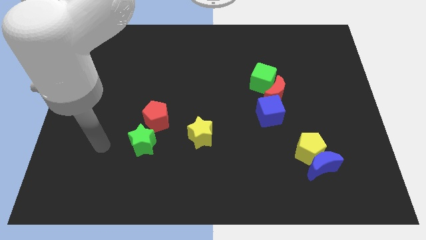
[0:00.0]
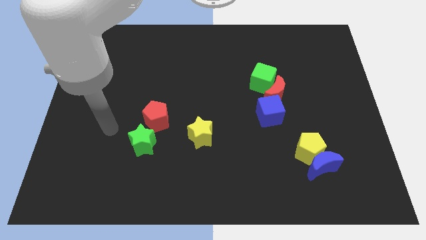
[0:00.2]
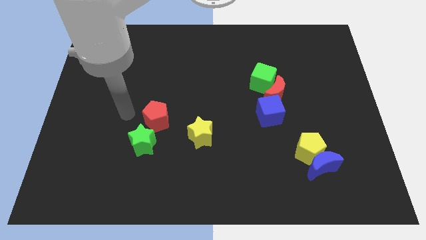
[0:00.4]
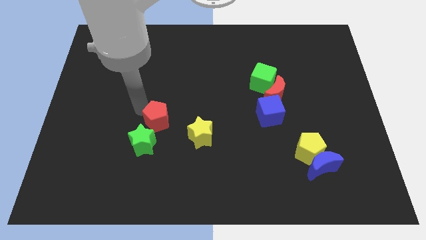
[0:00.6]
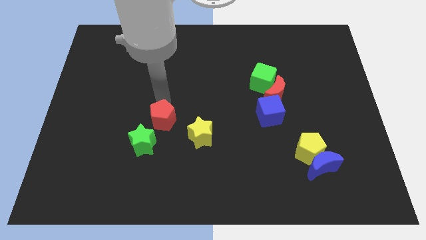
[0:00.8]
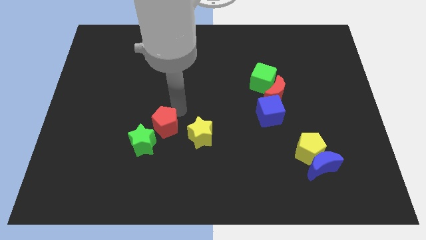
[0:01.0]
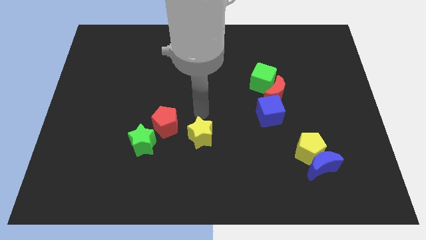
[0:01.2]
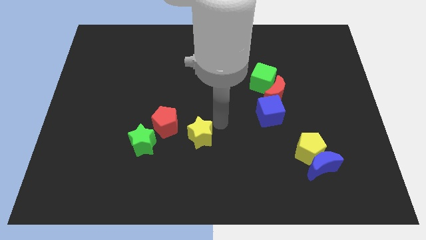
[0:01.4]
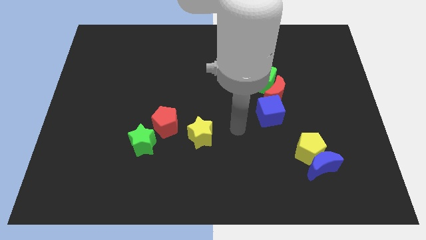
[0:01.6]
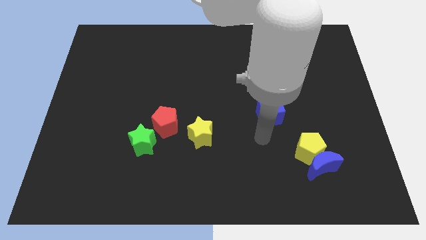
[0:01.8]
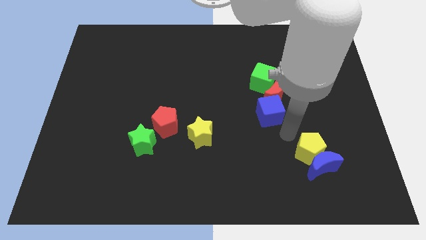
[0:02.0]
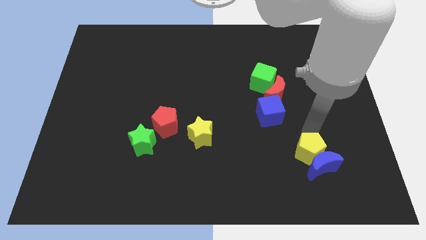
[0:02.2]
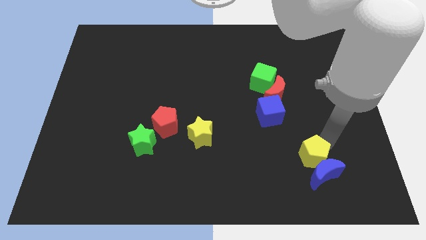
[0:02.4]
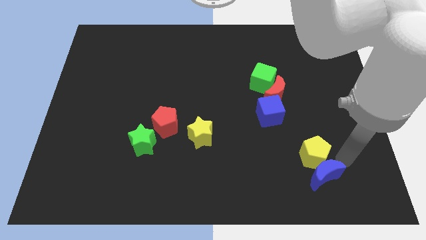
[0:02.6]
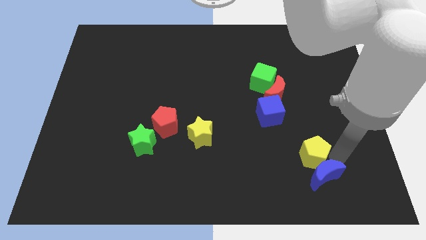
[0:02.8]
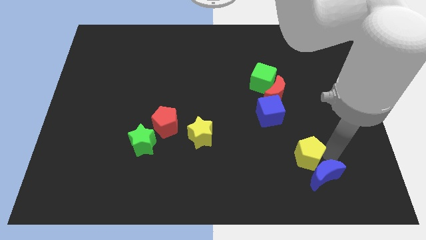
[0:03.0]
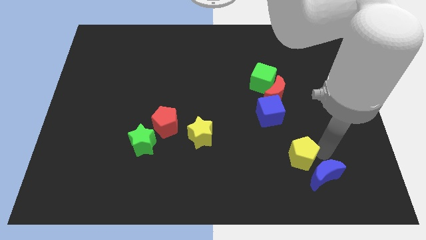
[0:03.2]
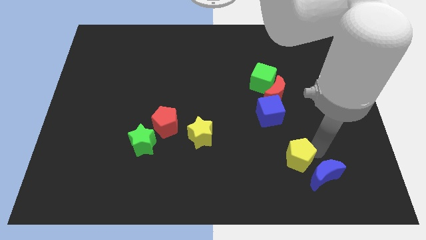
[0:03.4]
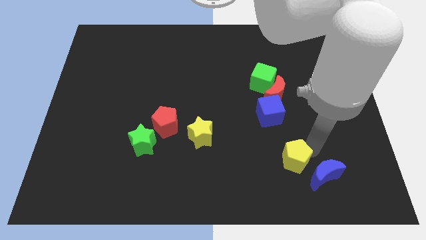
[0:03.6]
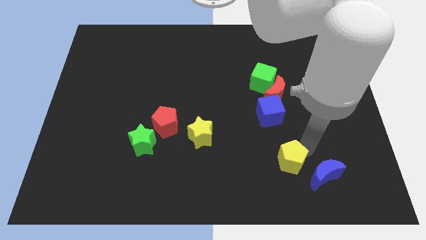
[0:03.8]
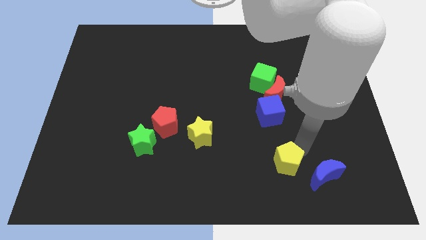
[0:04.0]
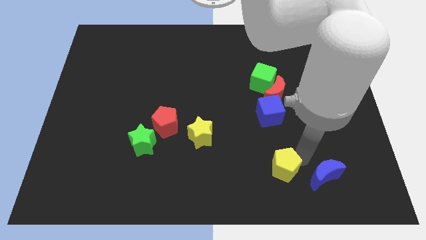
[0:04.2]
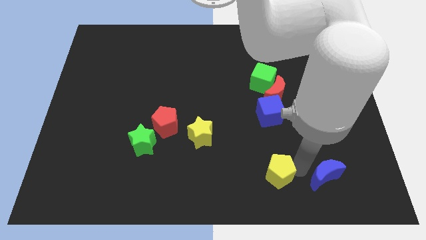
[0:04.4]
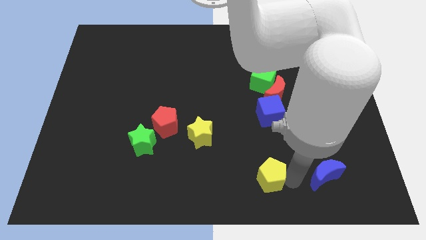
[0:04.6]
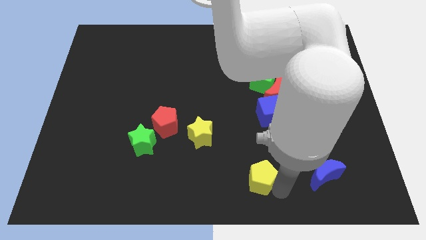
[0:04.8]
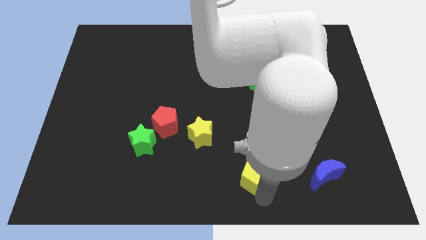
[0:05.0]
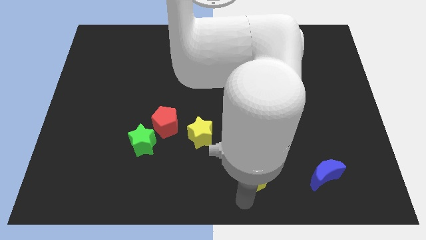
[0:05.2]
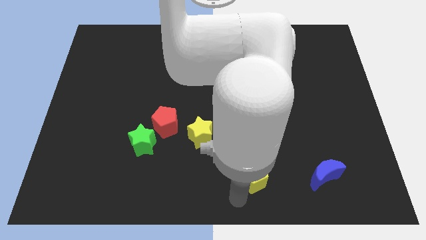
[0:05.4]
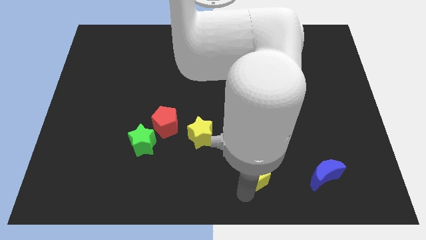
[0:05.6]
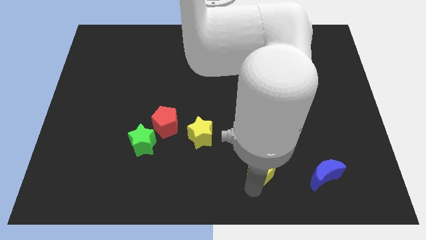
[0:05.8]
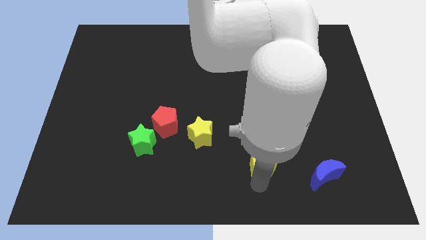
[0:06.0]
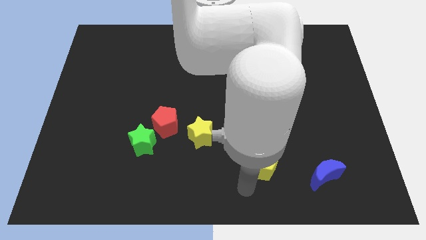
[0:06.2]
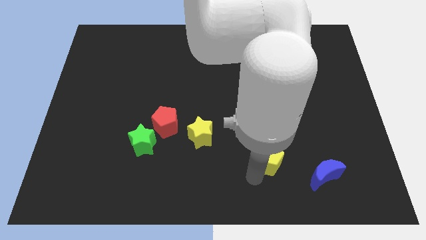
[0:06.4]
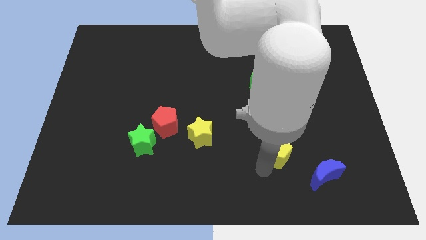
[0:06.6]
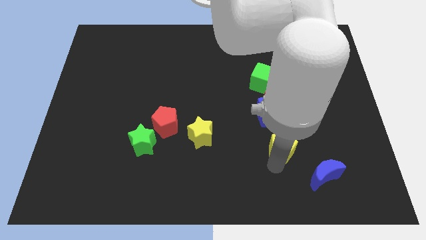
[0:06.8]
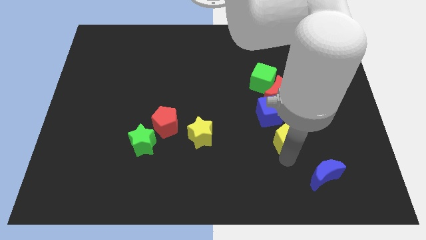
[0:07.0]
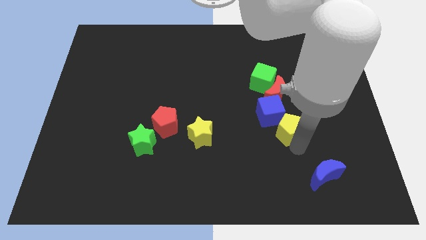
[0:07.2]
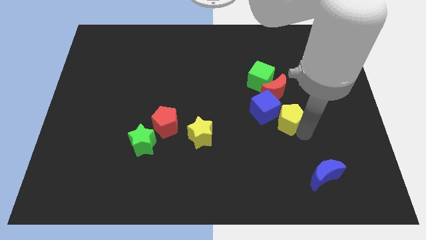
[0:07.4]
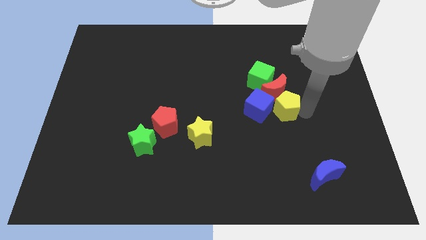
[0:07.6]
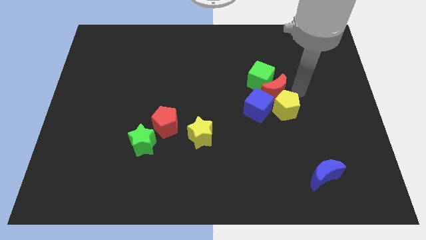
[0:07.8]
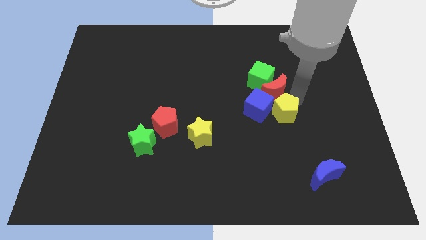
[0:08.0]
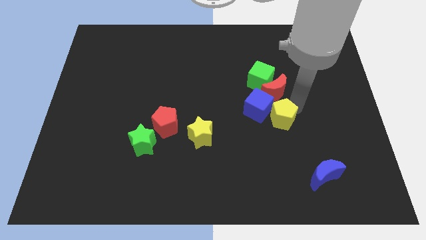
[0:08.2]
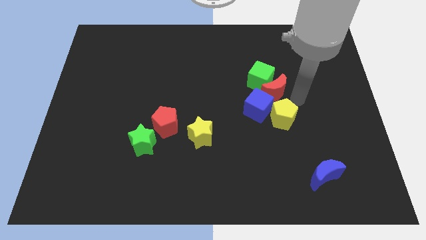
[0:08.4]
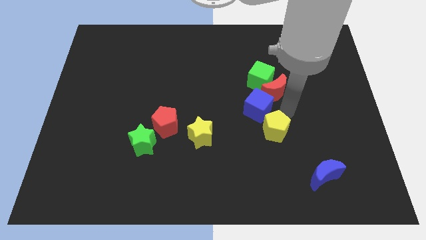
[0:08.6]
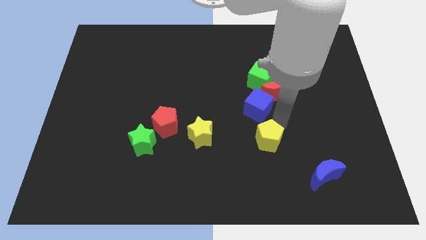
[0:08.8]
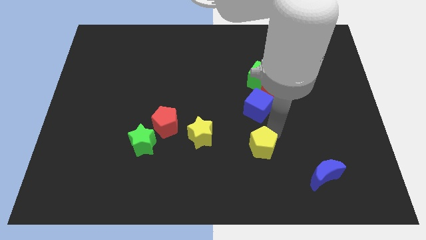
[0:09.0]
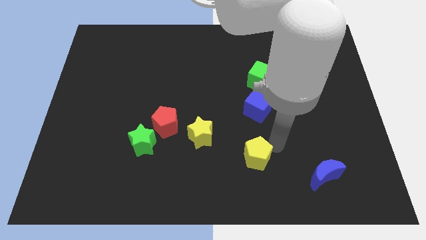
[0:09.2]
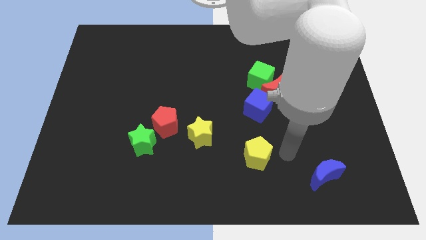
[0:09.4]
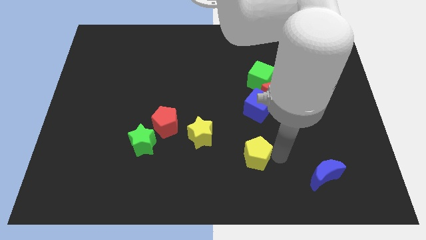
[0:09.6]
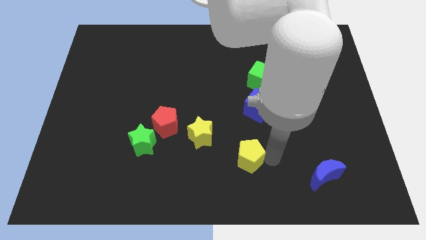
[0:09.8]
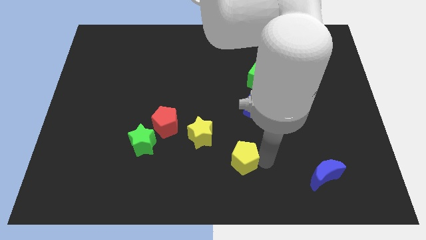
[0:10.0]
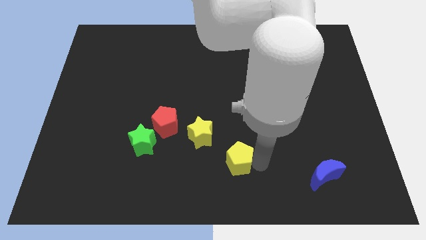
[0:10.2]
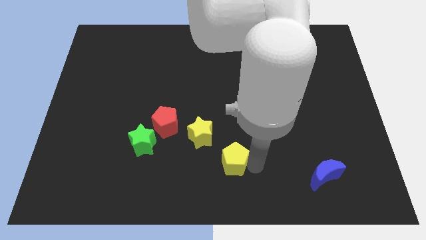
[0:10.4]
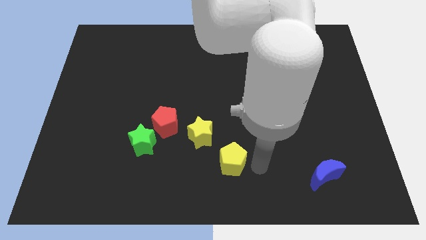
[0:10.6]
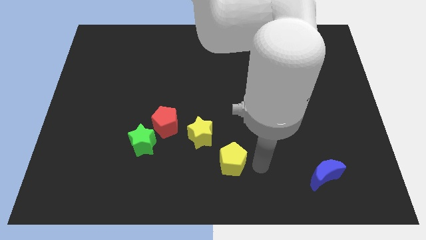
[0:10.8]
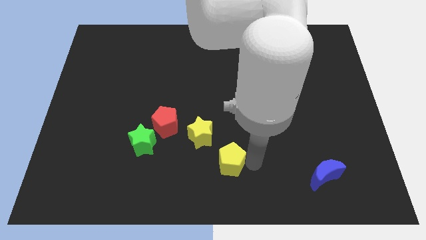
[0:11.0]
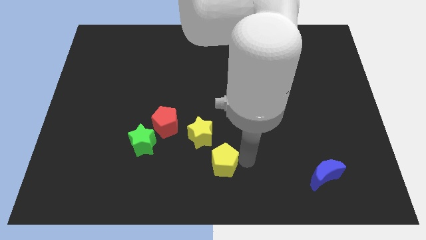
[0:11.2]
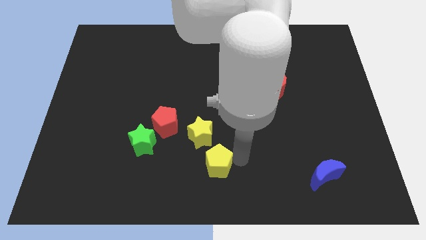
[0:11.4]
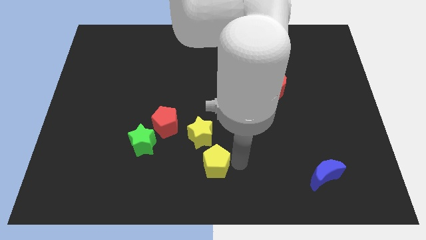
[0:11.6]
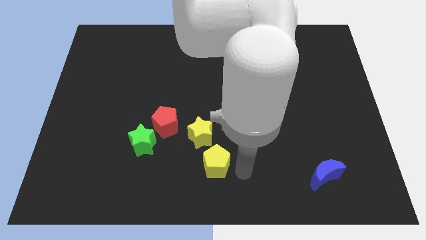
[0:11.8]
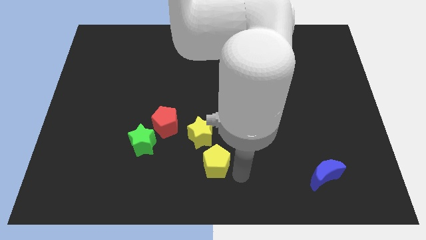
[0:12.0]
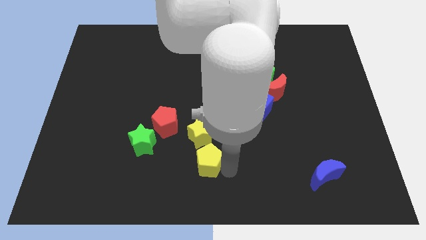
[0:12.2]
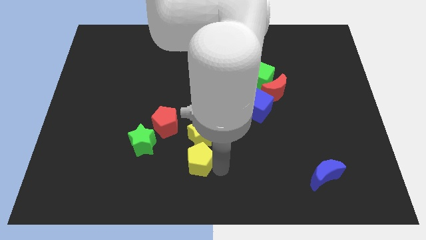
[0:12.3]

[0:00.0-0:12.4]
put the yellow pentagon diagonally down and to the right of the red pentagon

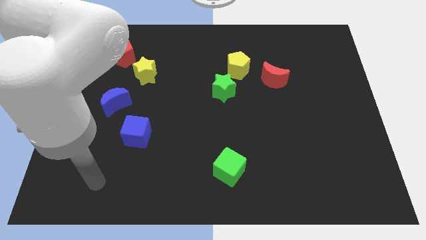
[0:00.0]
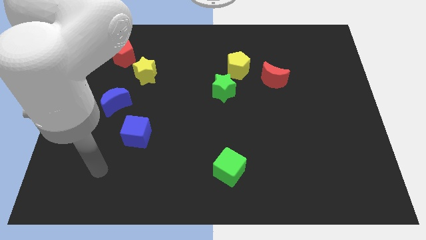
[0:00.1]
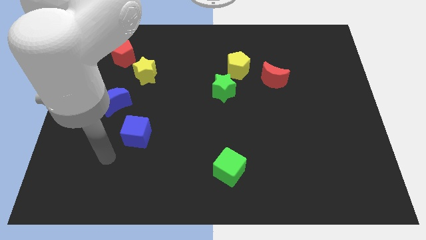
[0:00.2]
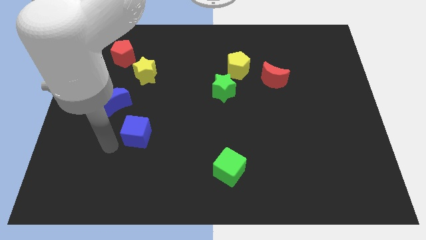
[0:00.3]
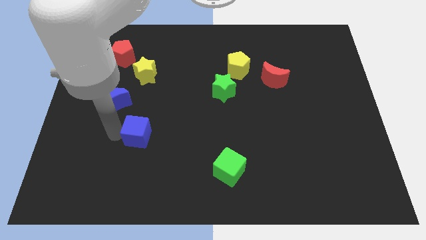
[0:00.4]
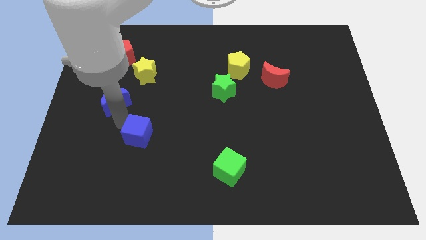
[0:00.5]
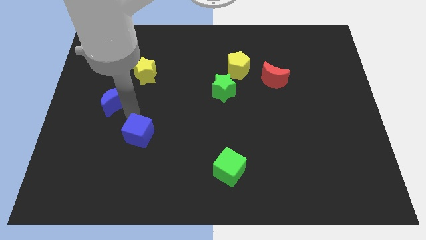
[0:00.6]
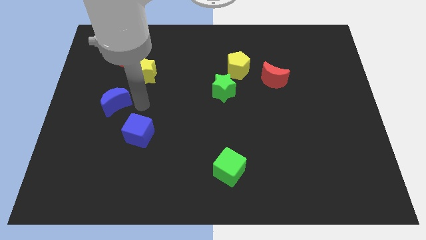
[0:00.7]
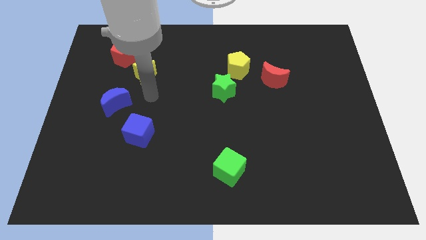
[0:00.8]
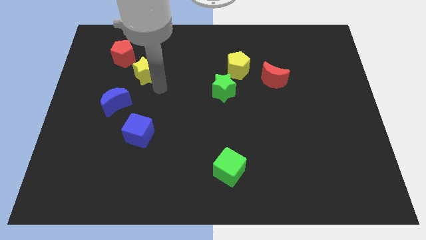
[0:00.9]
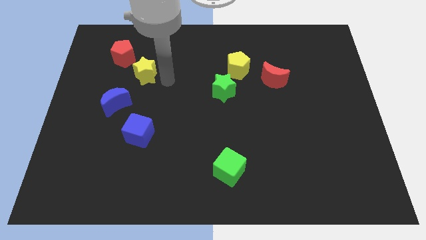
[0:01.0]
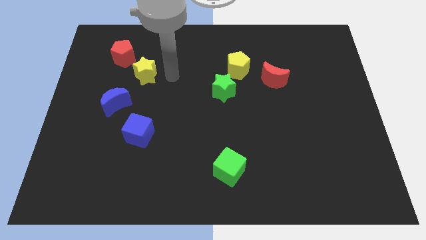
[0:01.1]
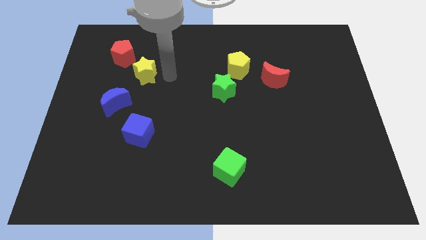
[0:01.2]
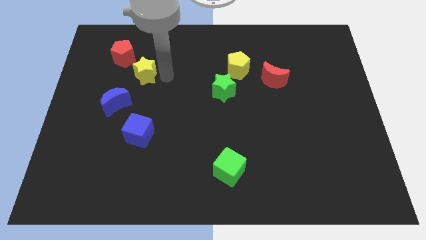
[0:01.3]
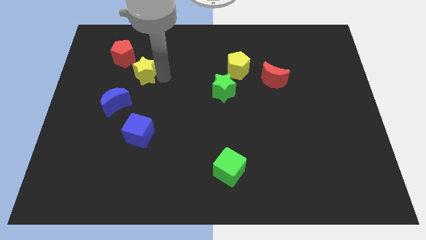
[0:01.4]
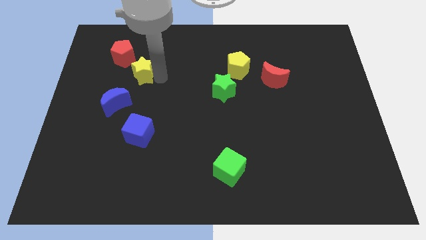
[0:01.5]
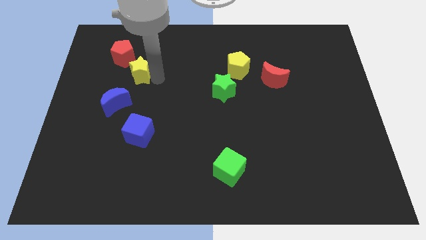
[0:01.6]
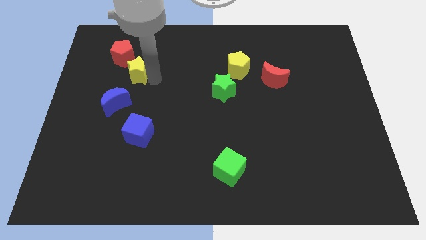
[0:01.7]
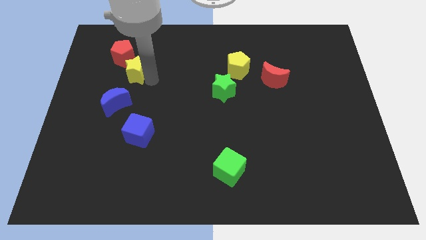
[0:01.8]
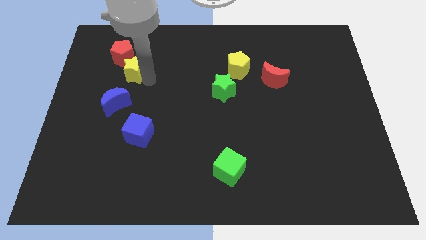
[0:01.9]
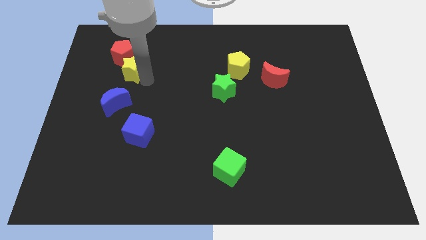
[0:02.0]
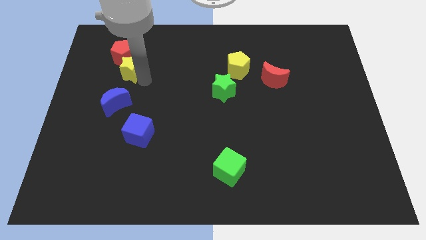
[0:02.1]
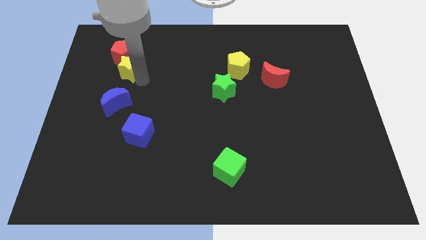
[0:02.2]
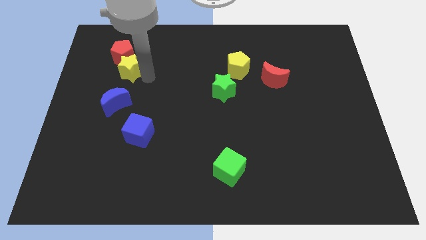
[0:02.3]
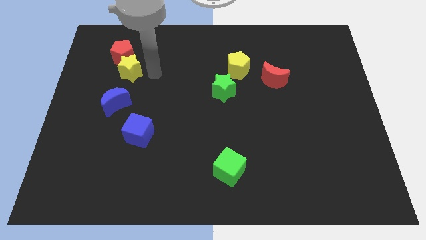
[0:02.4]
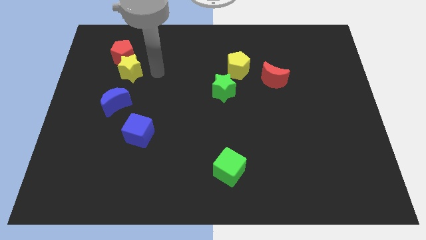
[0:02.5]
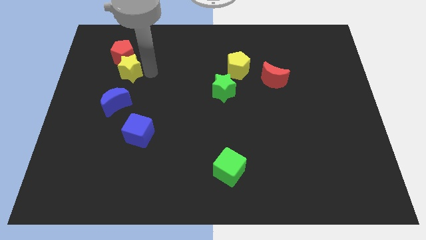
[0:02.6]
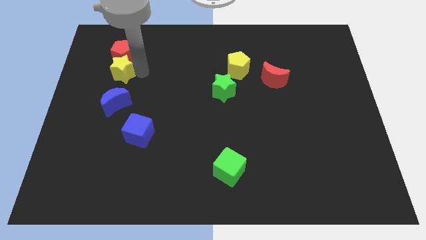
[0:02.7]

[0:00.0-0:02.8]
move the yellow star to the bottom left of the red pentagon
